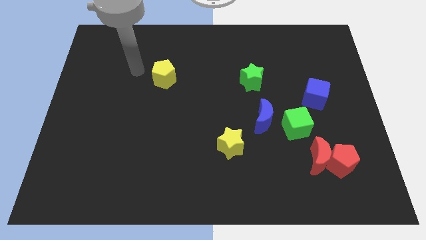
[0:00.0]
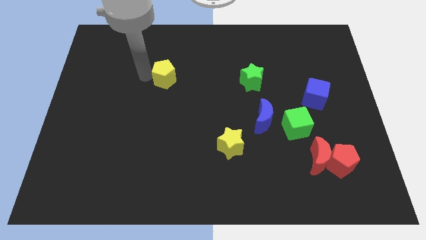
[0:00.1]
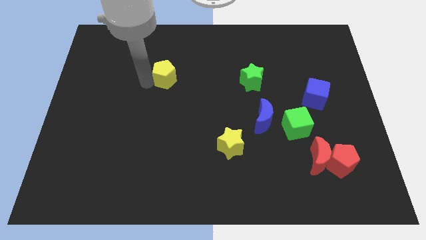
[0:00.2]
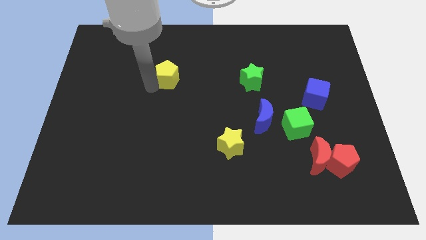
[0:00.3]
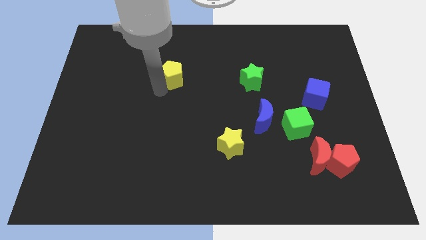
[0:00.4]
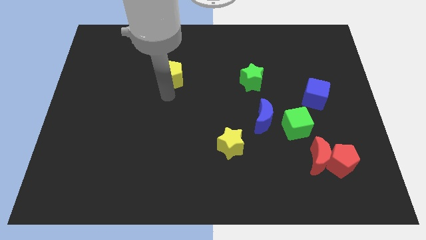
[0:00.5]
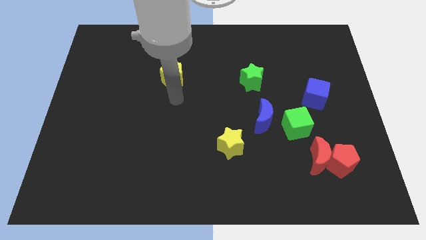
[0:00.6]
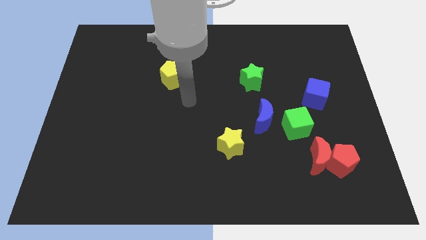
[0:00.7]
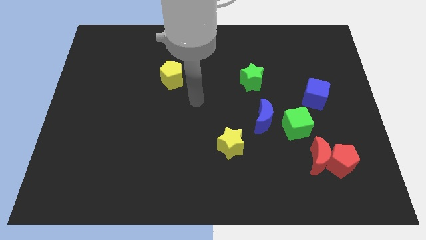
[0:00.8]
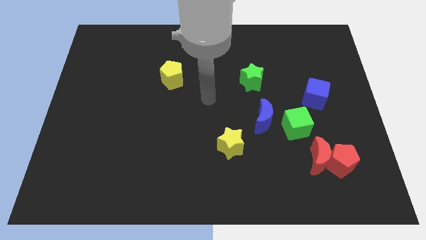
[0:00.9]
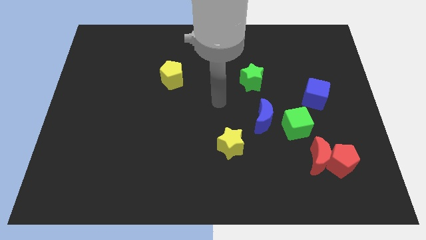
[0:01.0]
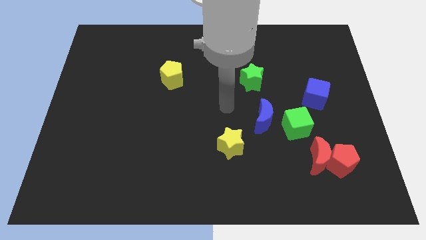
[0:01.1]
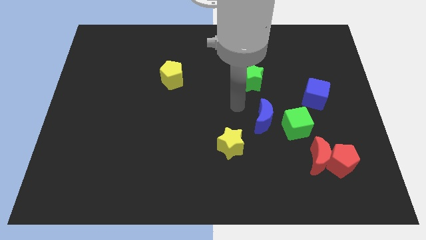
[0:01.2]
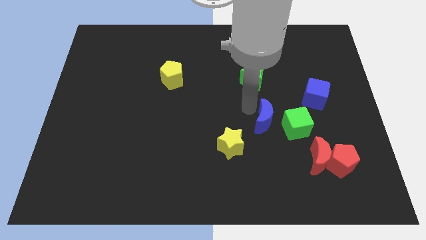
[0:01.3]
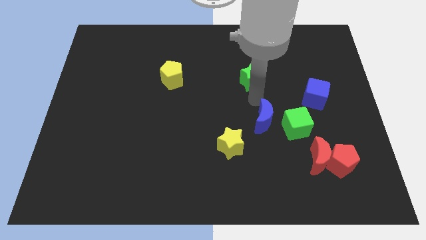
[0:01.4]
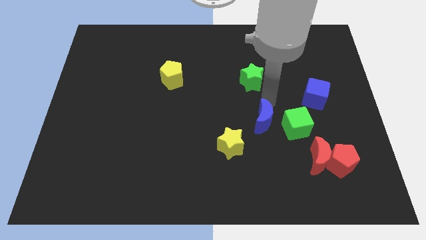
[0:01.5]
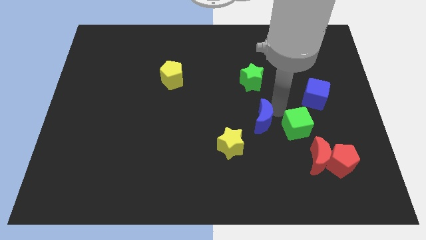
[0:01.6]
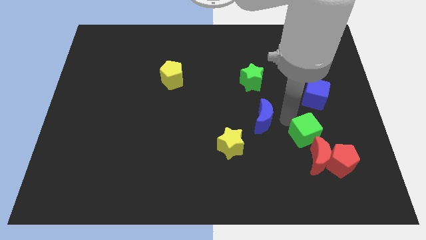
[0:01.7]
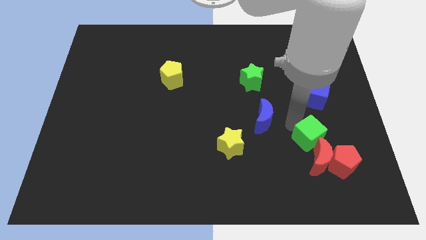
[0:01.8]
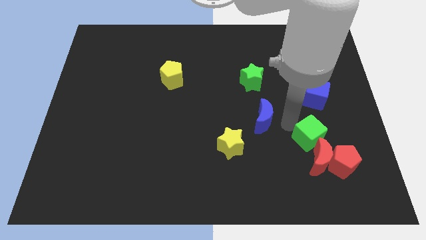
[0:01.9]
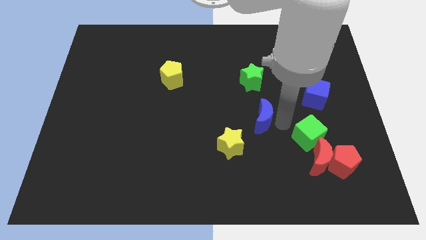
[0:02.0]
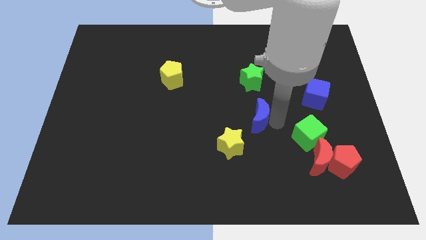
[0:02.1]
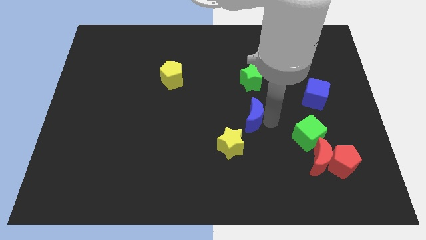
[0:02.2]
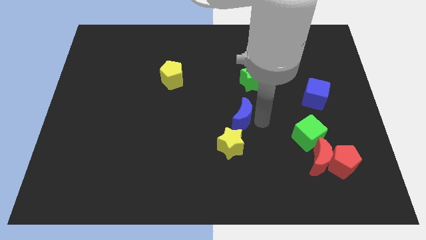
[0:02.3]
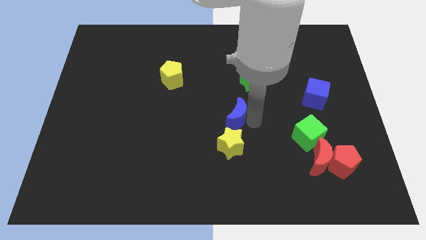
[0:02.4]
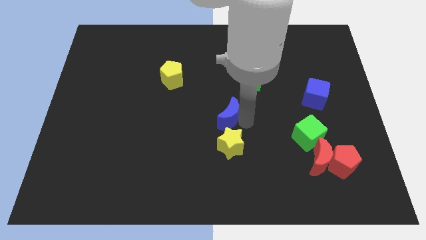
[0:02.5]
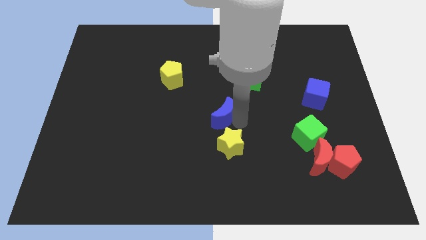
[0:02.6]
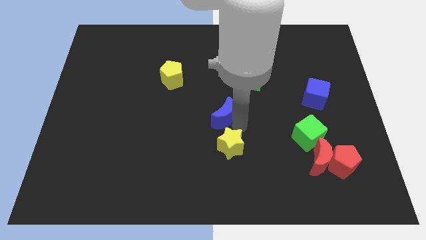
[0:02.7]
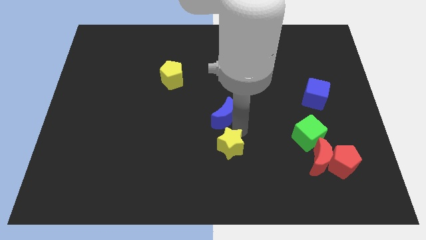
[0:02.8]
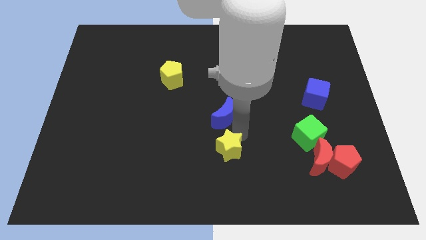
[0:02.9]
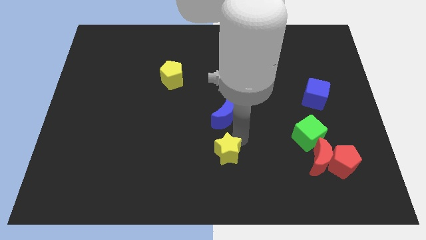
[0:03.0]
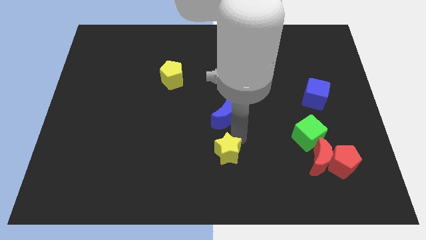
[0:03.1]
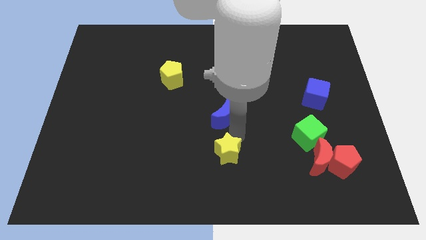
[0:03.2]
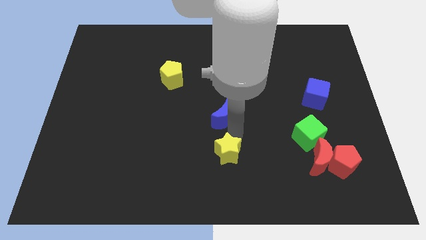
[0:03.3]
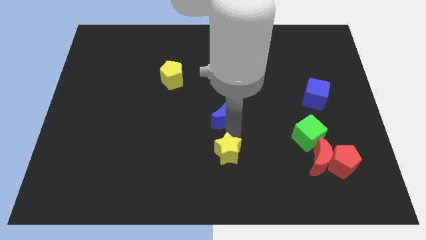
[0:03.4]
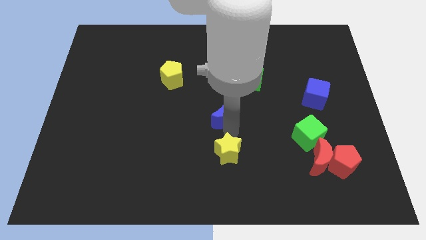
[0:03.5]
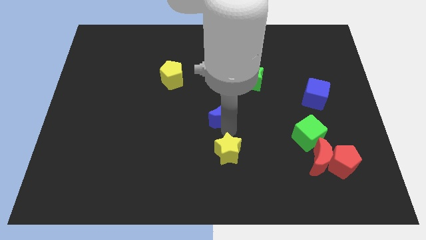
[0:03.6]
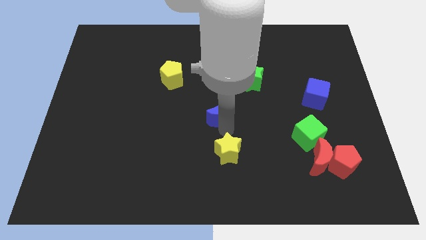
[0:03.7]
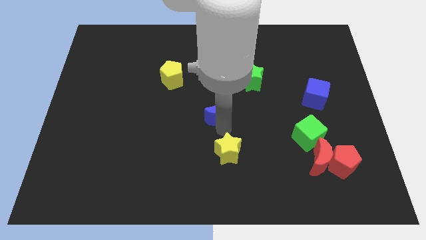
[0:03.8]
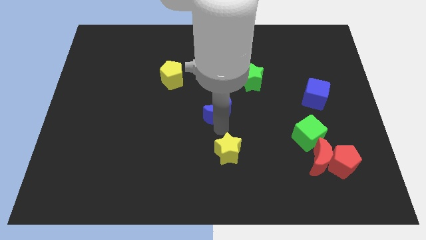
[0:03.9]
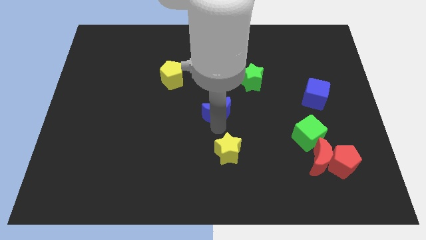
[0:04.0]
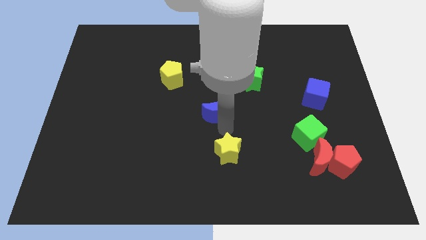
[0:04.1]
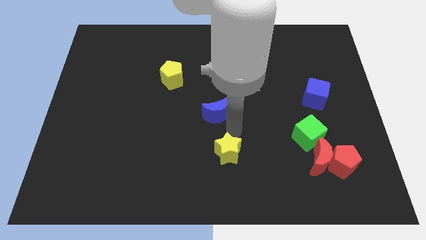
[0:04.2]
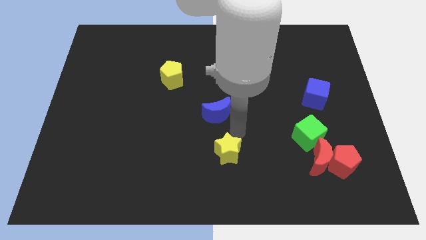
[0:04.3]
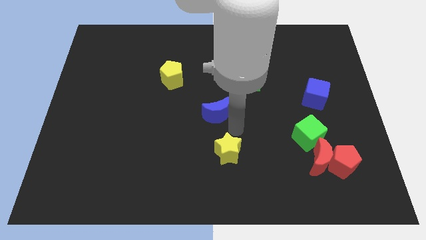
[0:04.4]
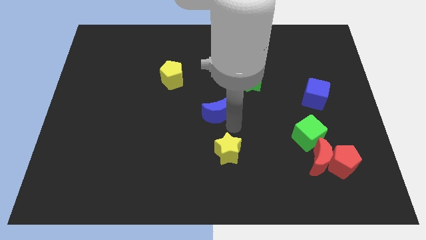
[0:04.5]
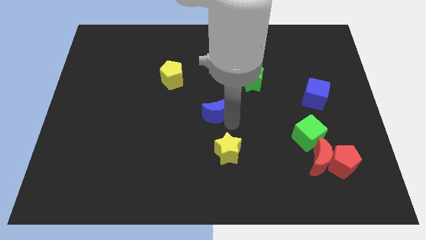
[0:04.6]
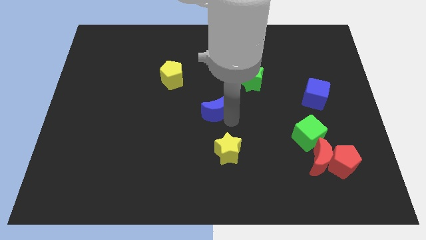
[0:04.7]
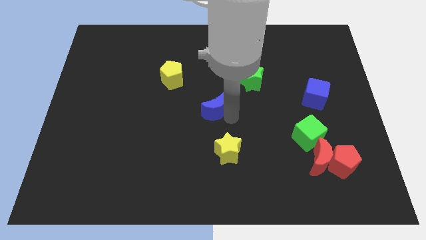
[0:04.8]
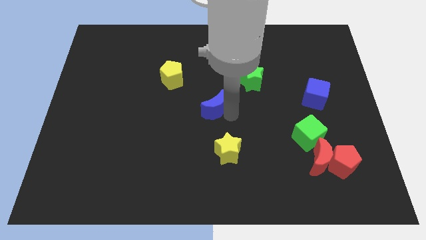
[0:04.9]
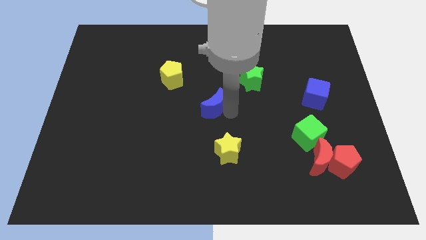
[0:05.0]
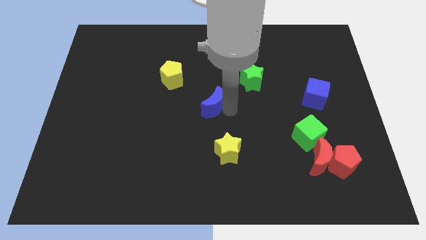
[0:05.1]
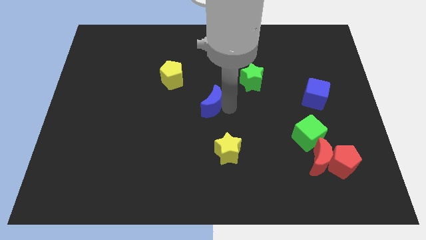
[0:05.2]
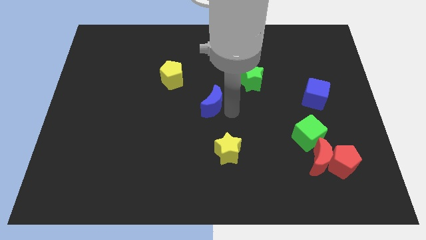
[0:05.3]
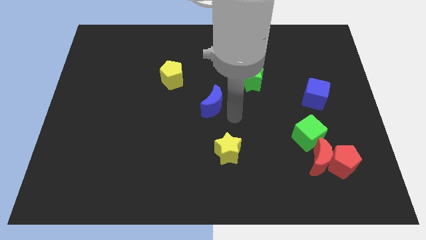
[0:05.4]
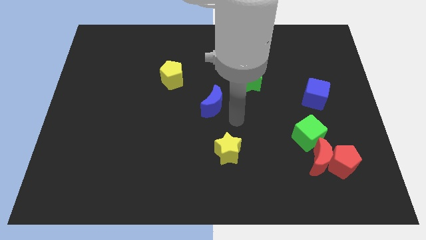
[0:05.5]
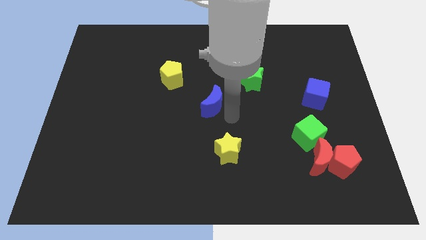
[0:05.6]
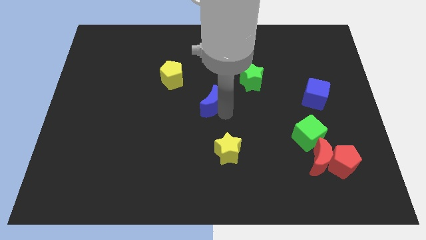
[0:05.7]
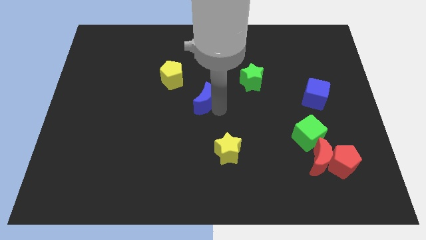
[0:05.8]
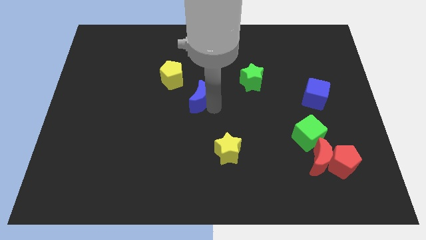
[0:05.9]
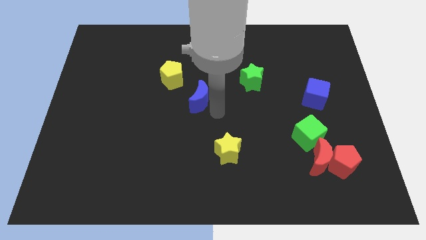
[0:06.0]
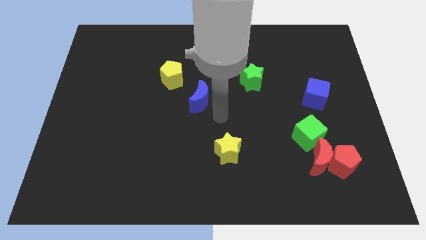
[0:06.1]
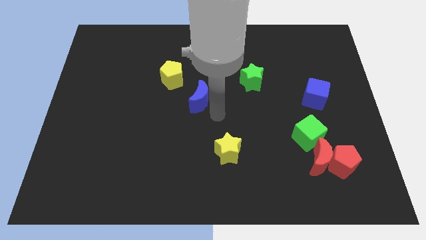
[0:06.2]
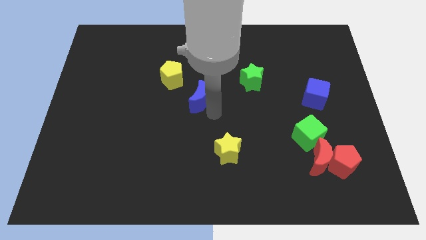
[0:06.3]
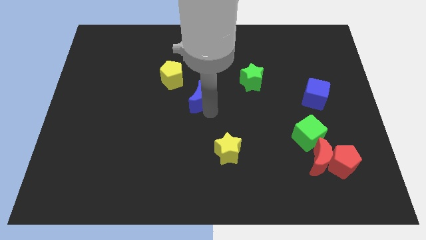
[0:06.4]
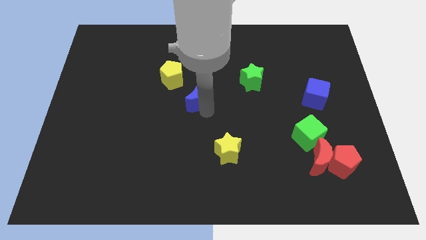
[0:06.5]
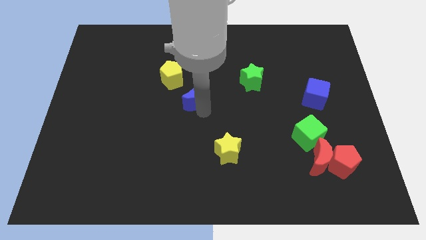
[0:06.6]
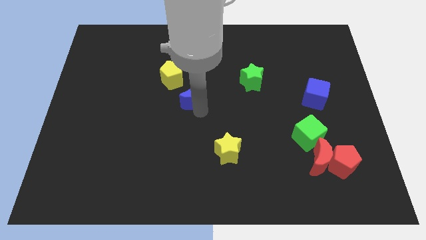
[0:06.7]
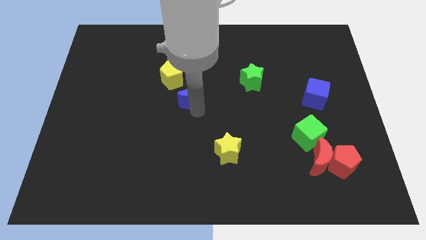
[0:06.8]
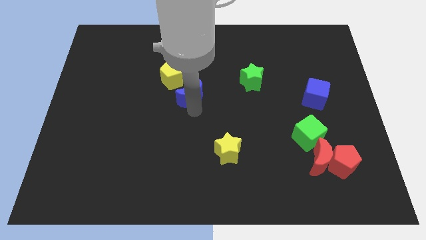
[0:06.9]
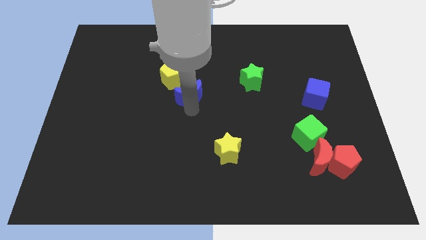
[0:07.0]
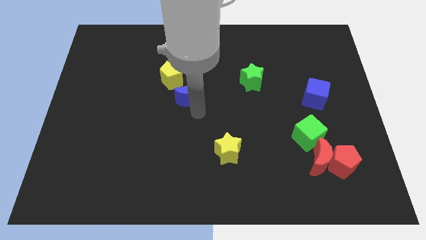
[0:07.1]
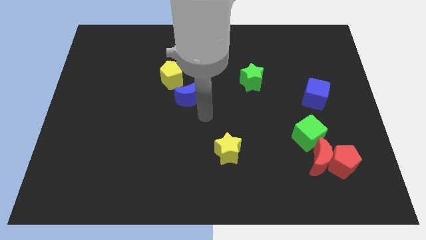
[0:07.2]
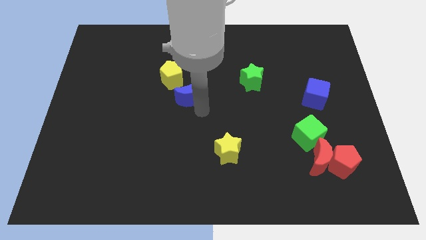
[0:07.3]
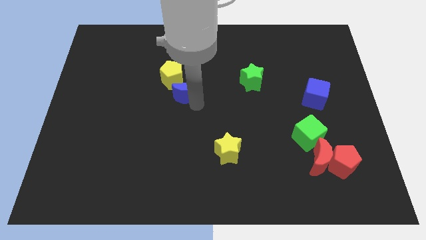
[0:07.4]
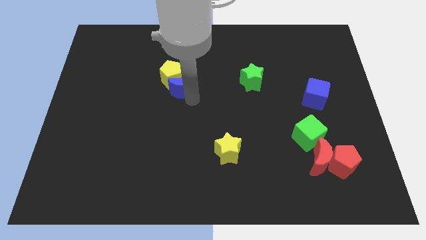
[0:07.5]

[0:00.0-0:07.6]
push the blue moon close to the yellow pentagon
